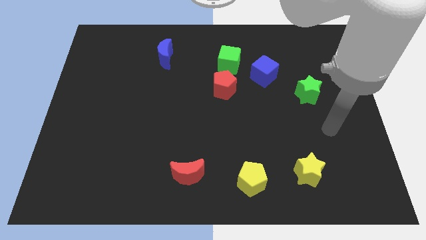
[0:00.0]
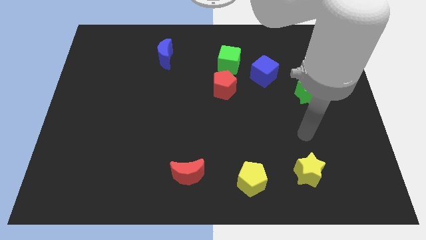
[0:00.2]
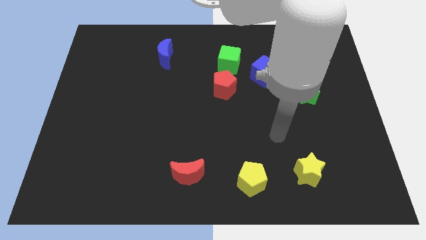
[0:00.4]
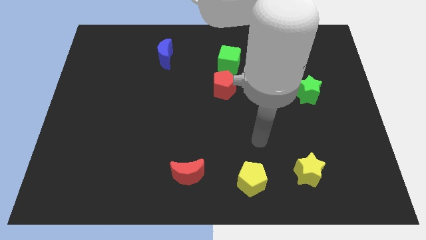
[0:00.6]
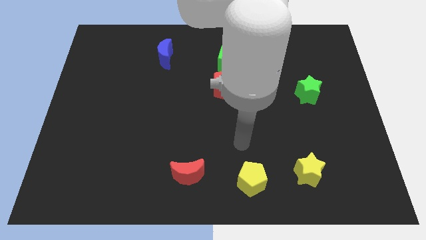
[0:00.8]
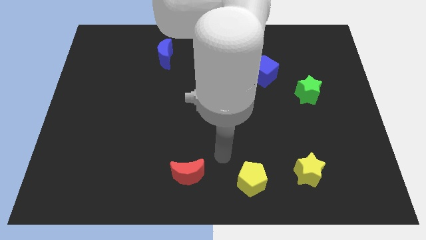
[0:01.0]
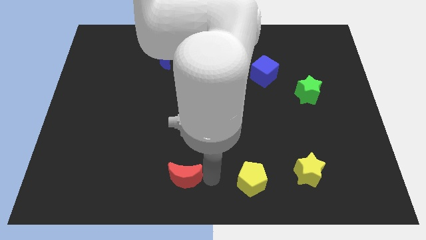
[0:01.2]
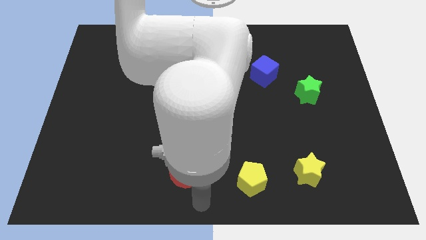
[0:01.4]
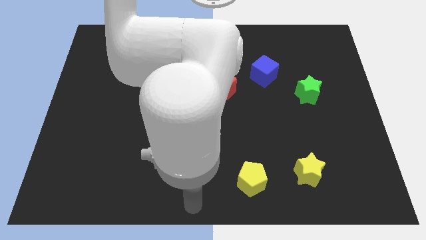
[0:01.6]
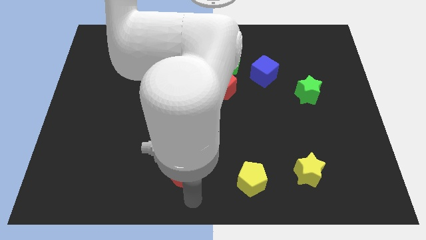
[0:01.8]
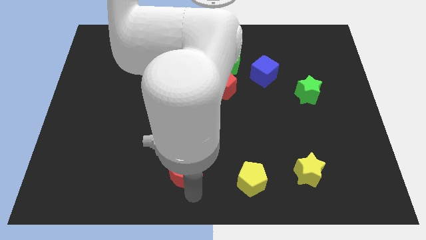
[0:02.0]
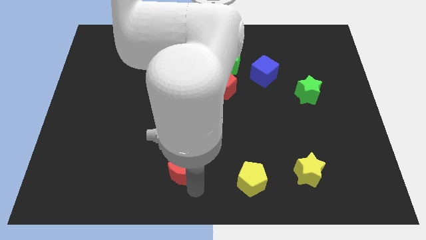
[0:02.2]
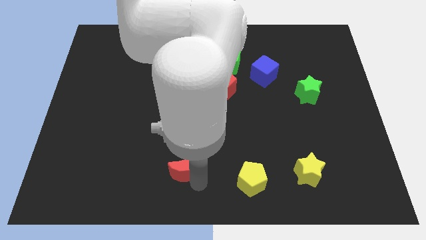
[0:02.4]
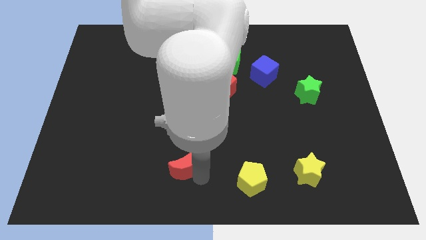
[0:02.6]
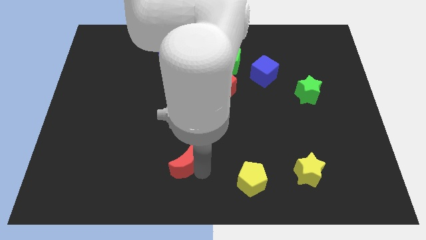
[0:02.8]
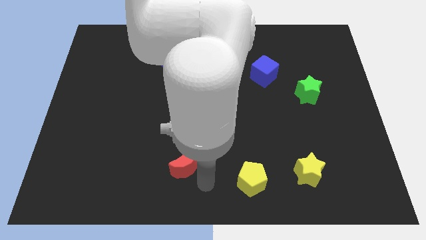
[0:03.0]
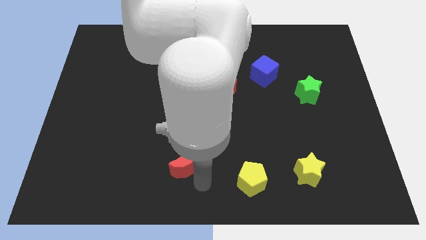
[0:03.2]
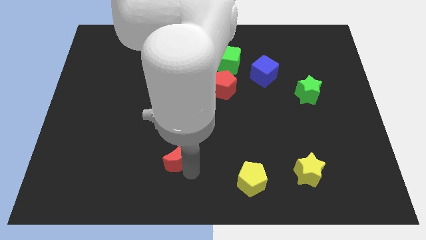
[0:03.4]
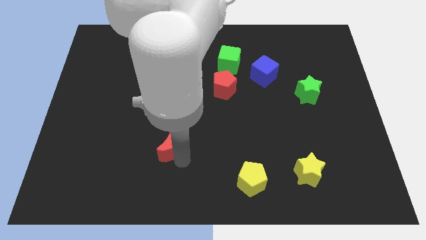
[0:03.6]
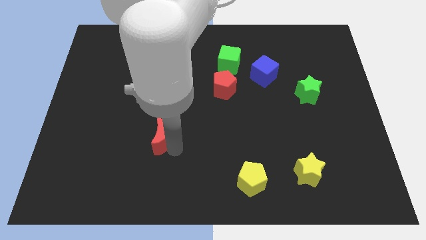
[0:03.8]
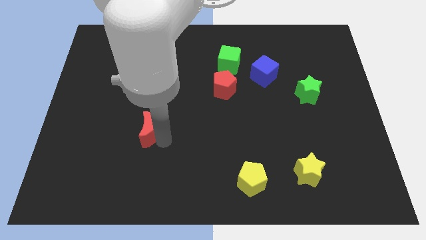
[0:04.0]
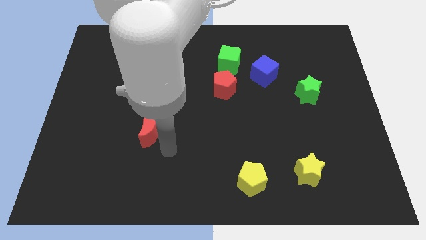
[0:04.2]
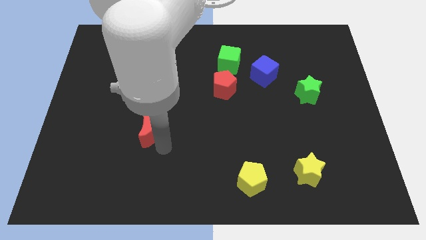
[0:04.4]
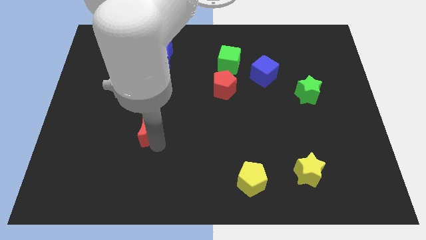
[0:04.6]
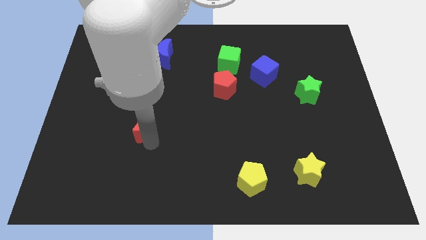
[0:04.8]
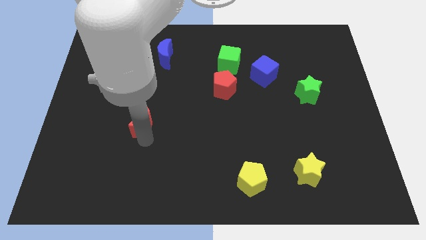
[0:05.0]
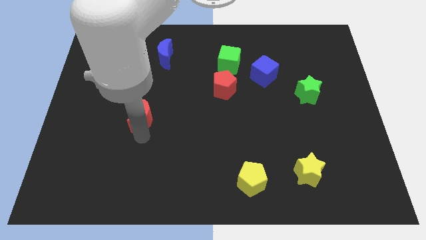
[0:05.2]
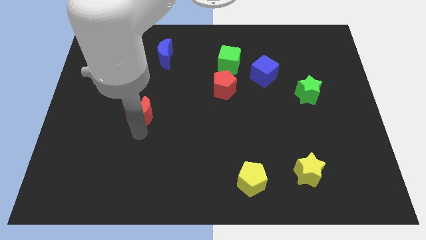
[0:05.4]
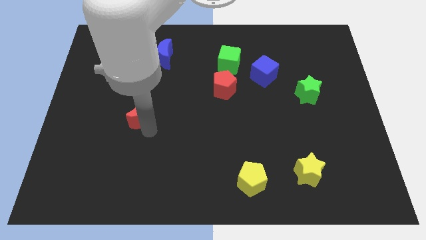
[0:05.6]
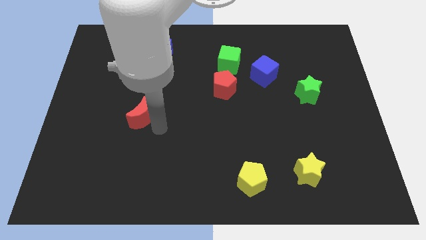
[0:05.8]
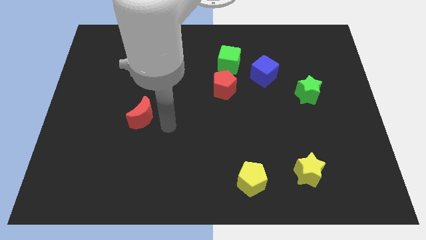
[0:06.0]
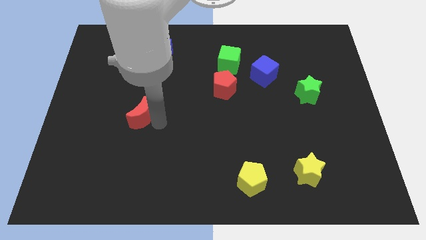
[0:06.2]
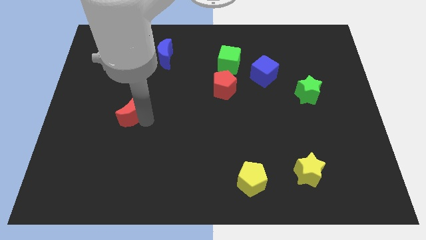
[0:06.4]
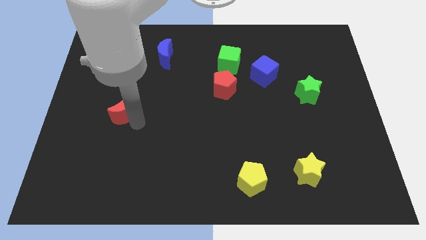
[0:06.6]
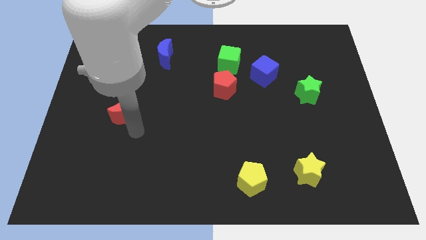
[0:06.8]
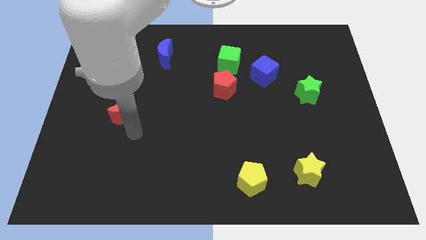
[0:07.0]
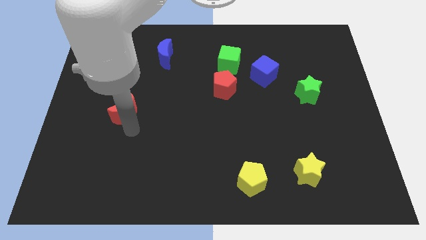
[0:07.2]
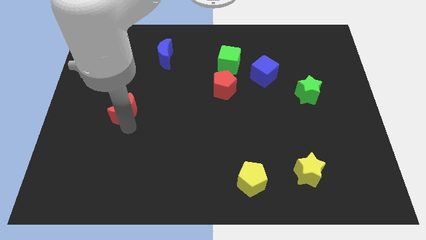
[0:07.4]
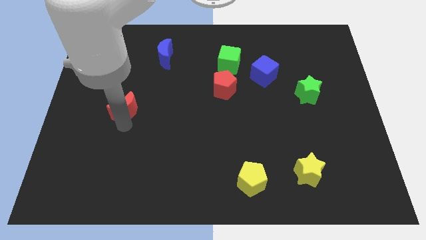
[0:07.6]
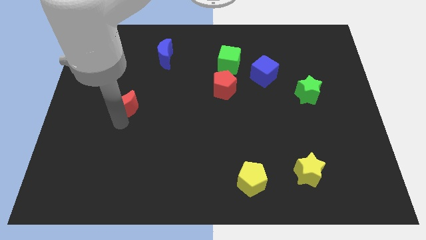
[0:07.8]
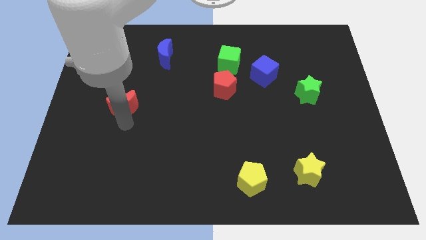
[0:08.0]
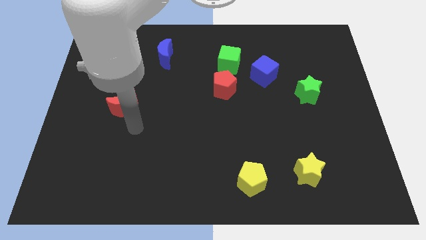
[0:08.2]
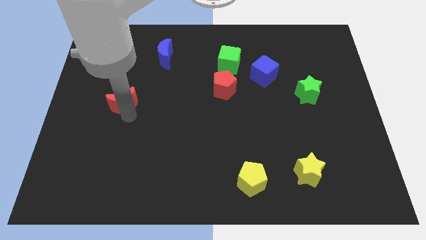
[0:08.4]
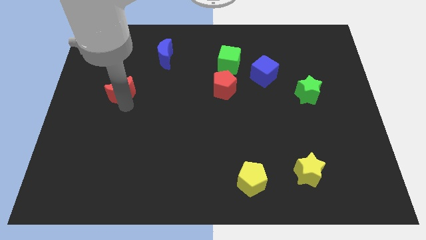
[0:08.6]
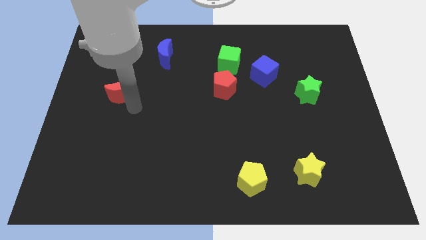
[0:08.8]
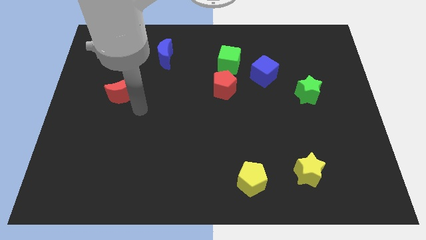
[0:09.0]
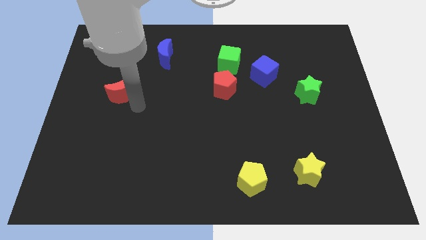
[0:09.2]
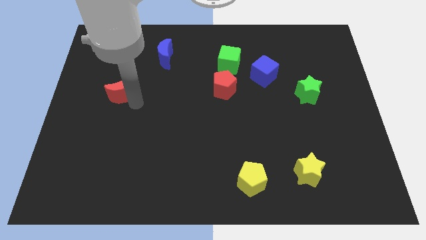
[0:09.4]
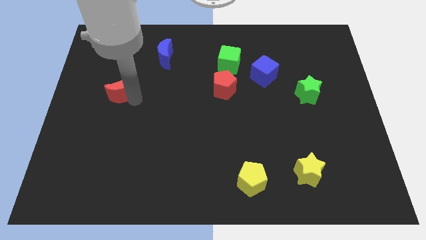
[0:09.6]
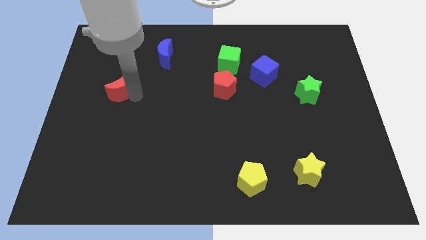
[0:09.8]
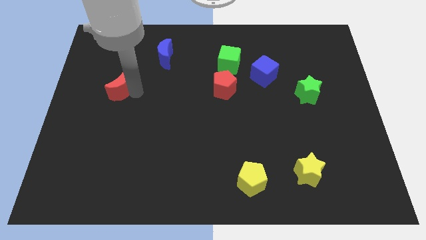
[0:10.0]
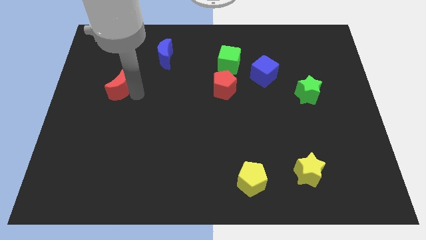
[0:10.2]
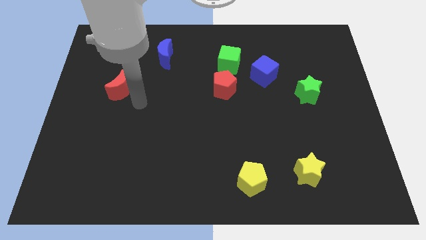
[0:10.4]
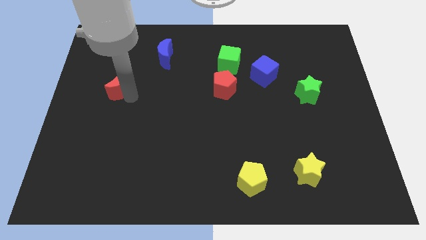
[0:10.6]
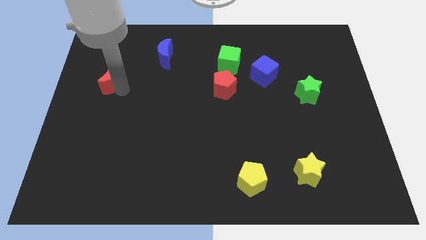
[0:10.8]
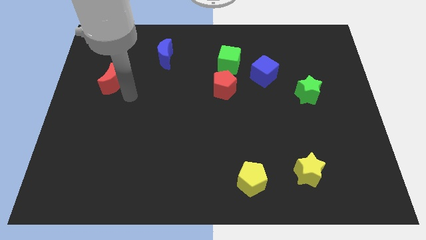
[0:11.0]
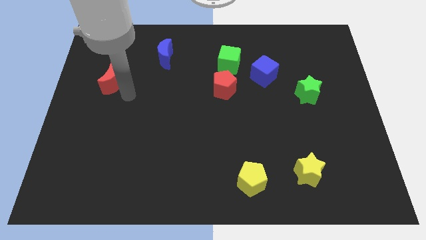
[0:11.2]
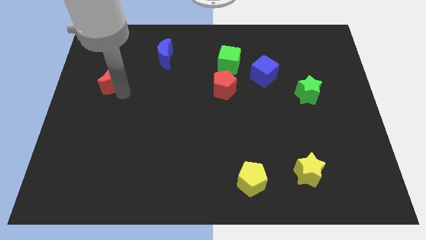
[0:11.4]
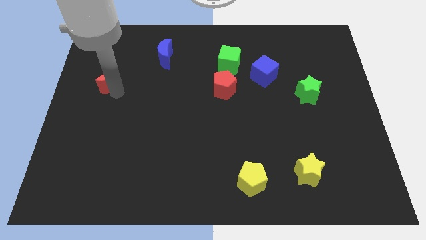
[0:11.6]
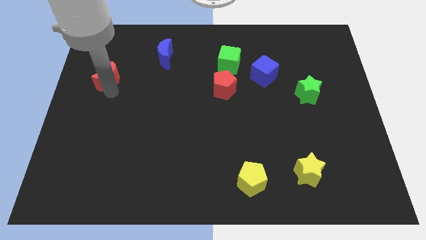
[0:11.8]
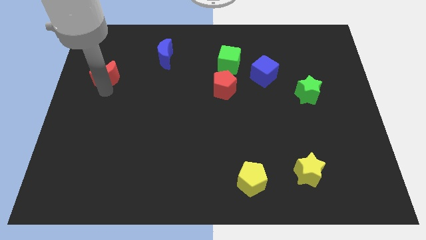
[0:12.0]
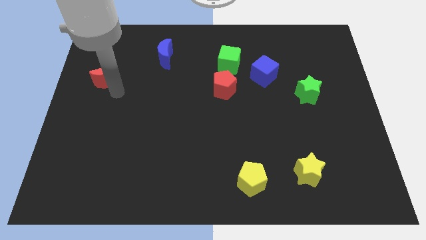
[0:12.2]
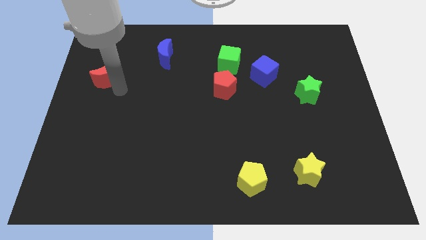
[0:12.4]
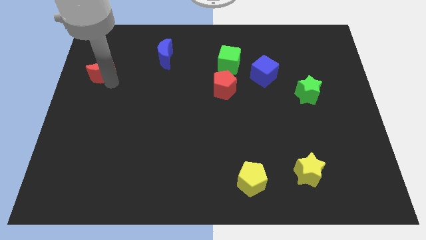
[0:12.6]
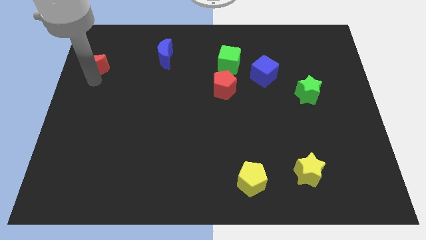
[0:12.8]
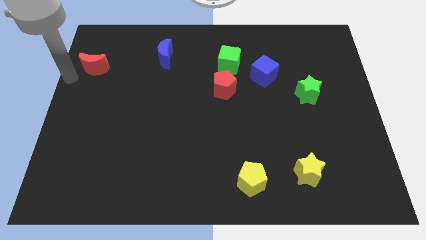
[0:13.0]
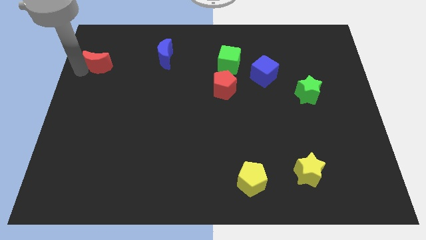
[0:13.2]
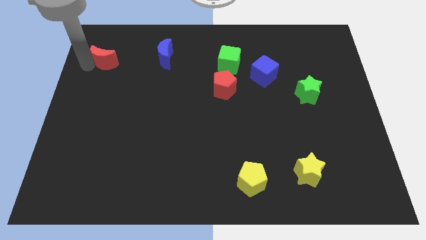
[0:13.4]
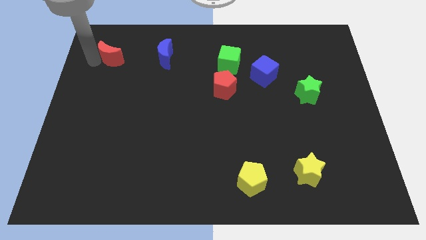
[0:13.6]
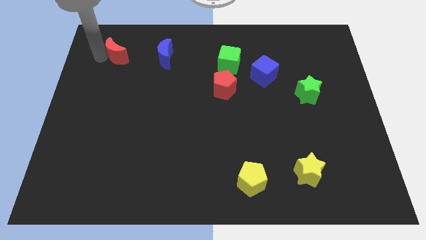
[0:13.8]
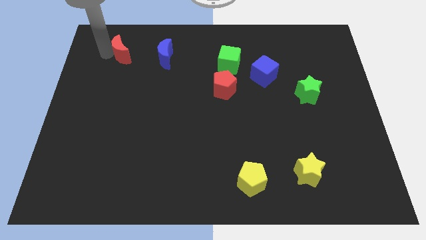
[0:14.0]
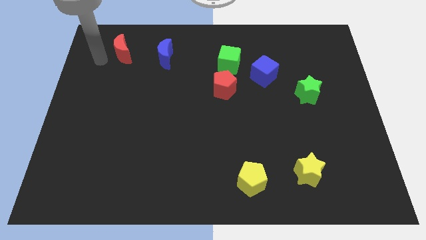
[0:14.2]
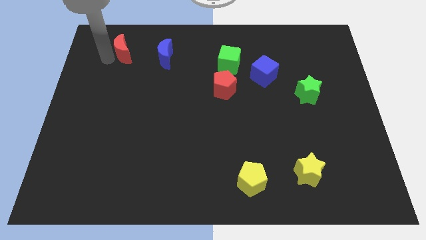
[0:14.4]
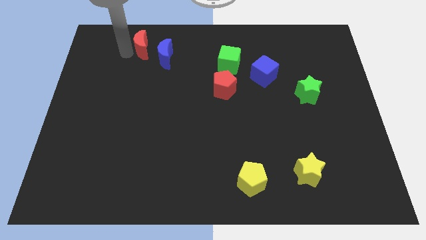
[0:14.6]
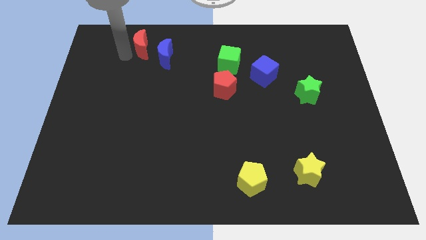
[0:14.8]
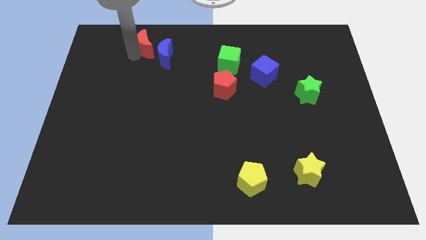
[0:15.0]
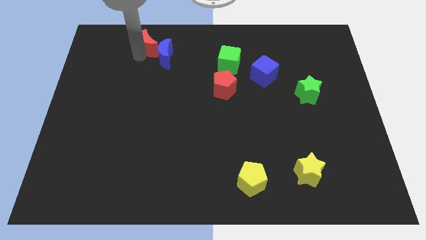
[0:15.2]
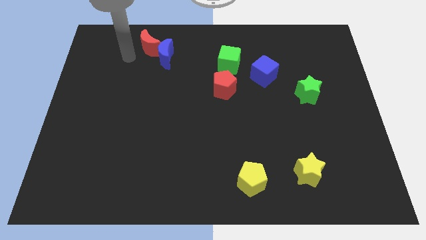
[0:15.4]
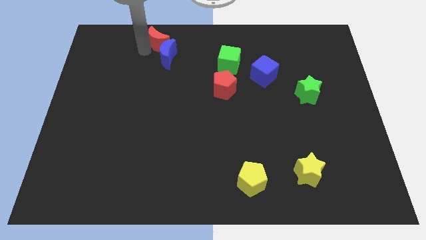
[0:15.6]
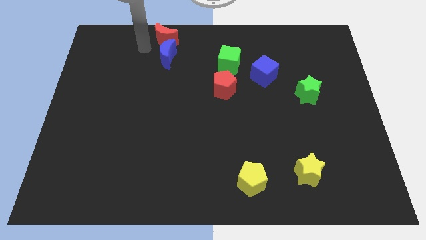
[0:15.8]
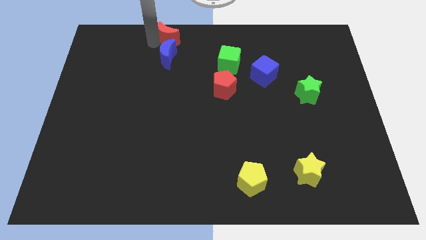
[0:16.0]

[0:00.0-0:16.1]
move the red moon to the towards your base
